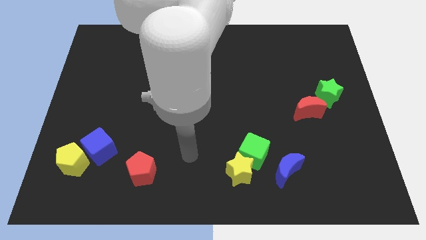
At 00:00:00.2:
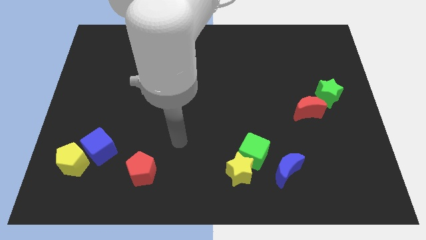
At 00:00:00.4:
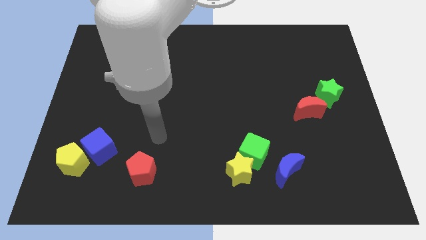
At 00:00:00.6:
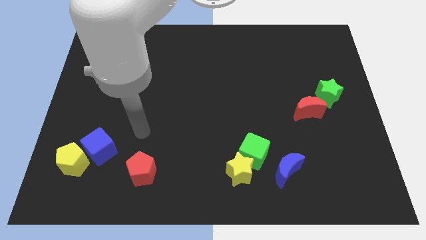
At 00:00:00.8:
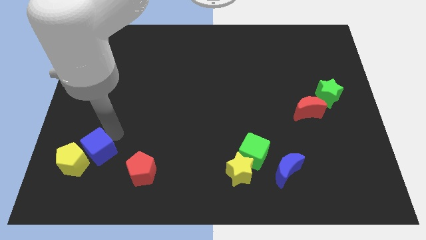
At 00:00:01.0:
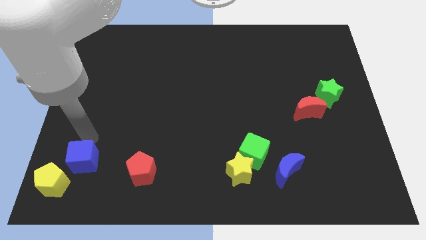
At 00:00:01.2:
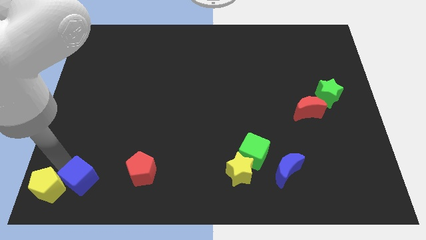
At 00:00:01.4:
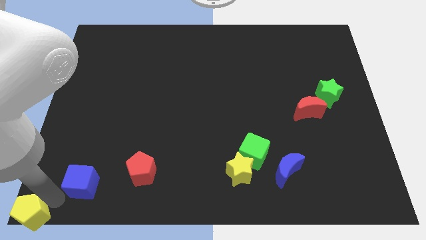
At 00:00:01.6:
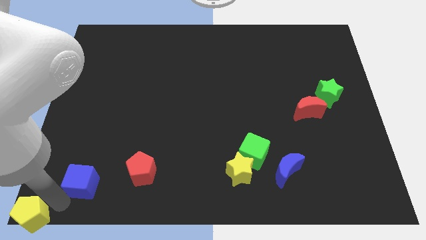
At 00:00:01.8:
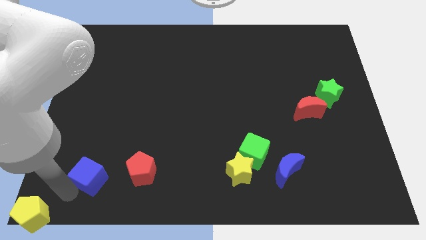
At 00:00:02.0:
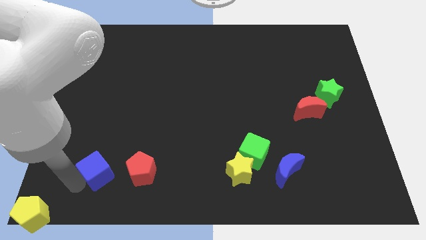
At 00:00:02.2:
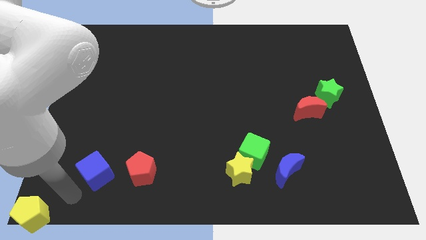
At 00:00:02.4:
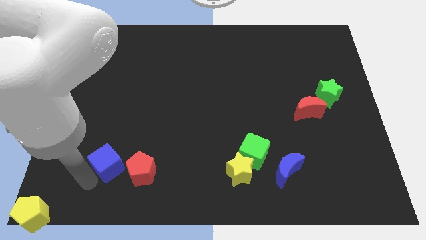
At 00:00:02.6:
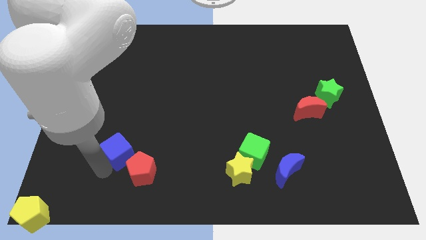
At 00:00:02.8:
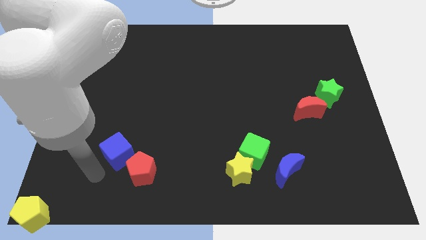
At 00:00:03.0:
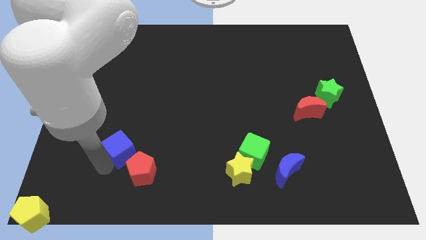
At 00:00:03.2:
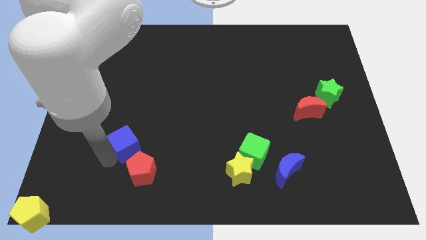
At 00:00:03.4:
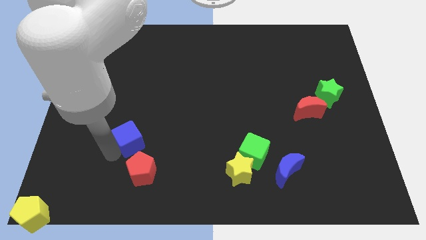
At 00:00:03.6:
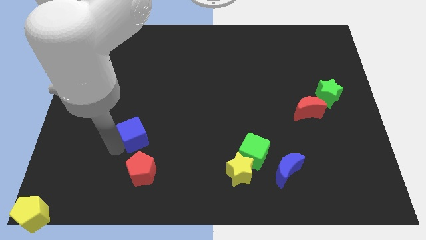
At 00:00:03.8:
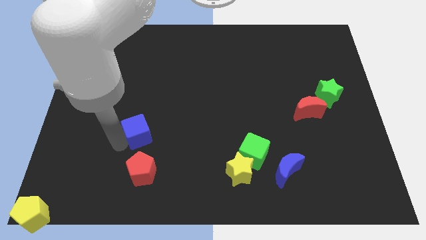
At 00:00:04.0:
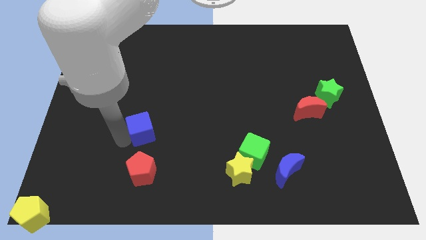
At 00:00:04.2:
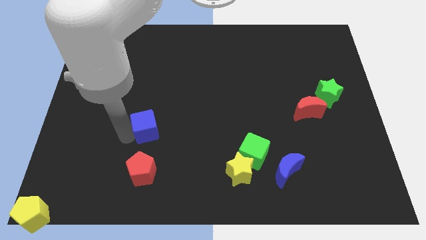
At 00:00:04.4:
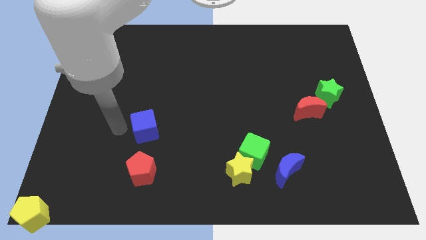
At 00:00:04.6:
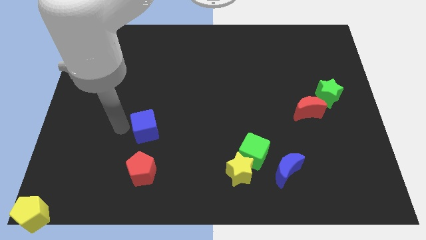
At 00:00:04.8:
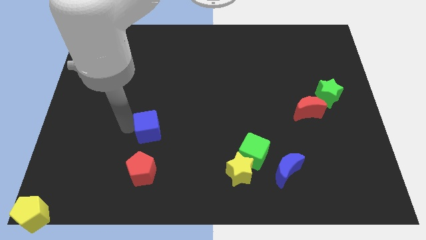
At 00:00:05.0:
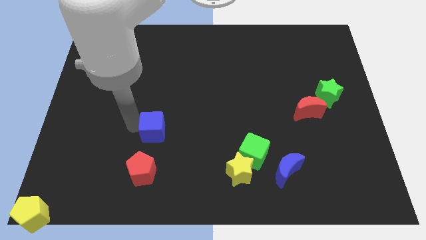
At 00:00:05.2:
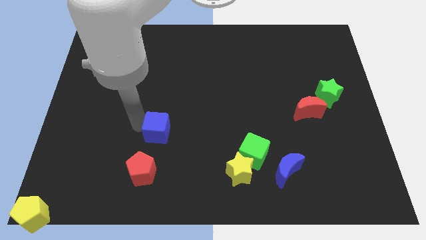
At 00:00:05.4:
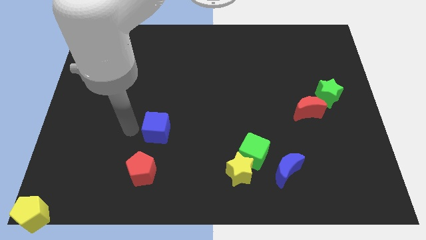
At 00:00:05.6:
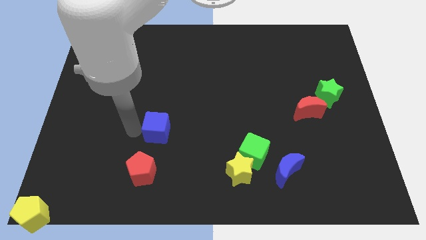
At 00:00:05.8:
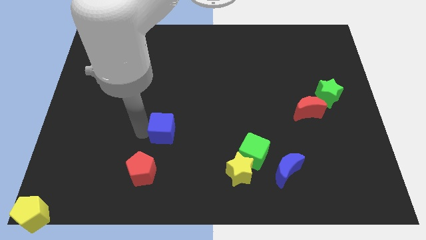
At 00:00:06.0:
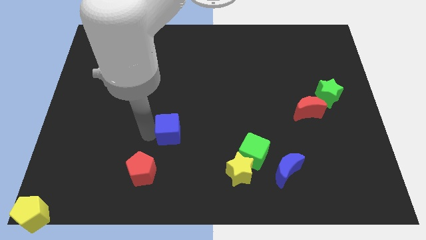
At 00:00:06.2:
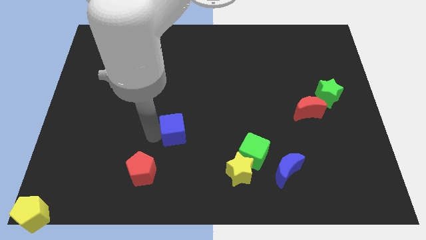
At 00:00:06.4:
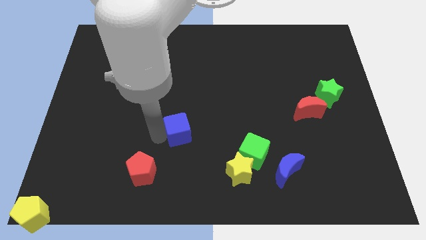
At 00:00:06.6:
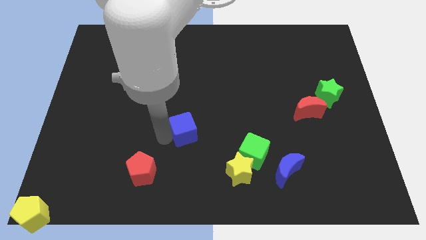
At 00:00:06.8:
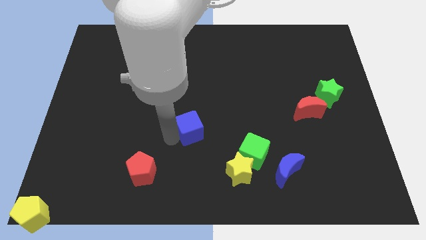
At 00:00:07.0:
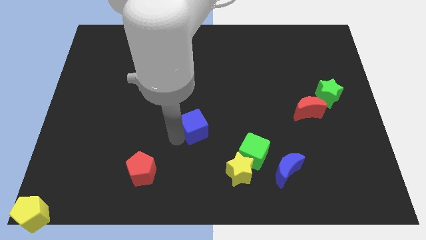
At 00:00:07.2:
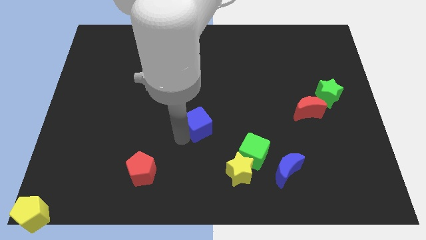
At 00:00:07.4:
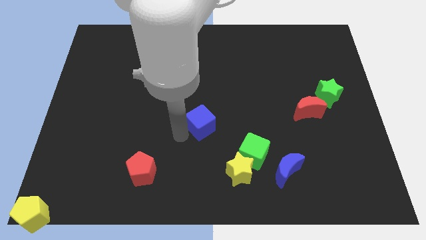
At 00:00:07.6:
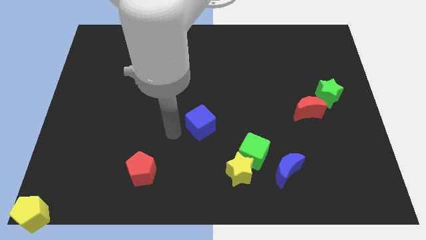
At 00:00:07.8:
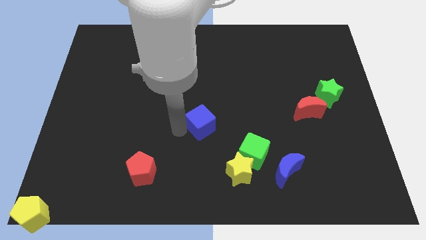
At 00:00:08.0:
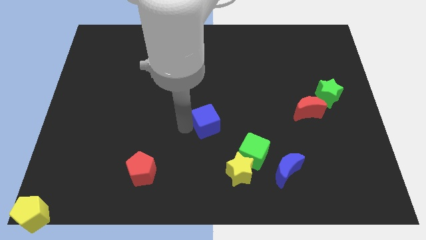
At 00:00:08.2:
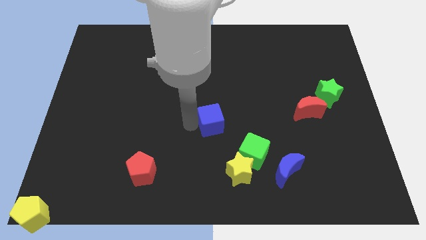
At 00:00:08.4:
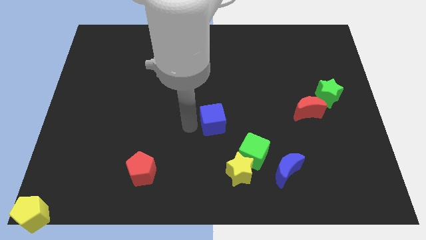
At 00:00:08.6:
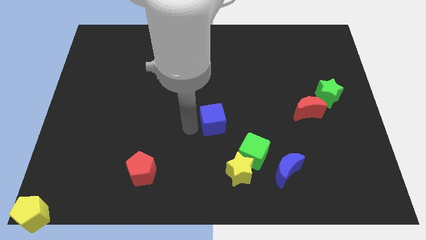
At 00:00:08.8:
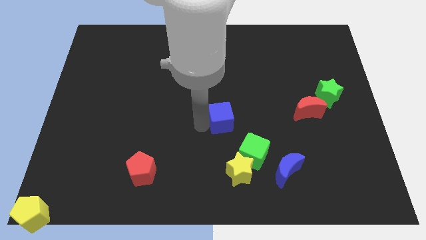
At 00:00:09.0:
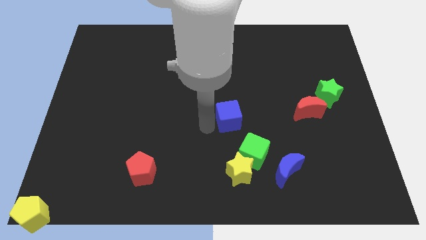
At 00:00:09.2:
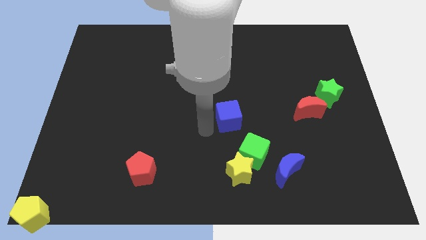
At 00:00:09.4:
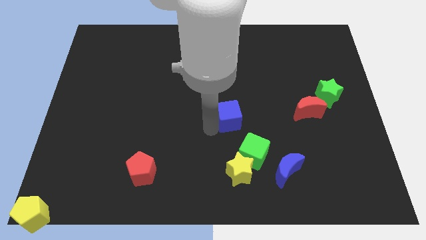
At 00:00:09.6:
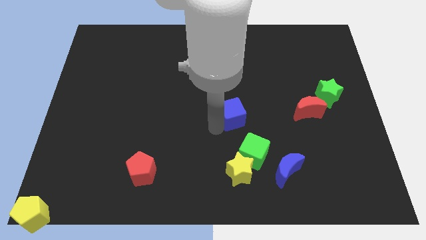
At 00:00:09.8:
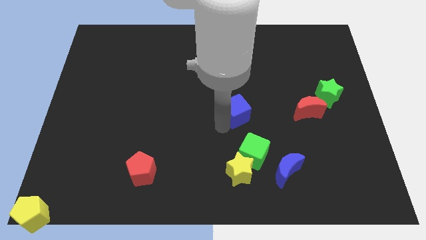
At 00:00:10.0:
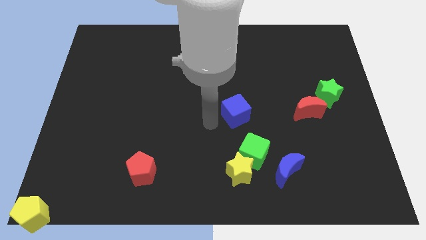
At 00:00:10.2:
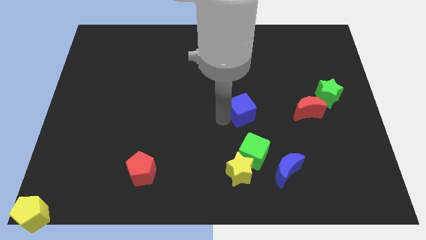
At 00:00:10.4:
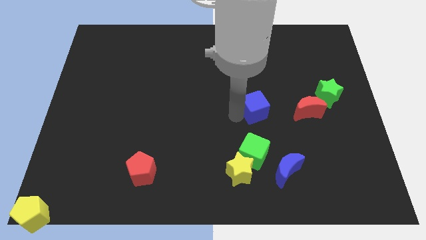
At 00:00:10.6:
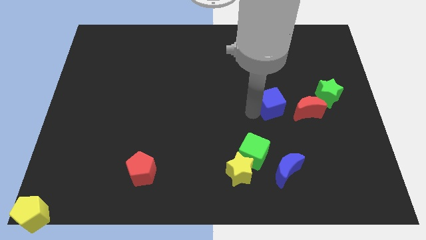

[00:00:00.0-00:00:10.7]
push the blue cube to the left of the green star

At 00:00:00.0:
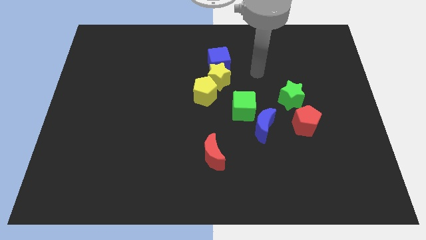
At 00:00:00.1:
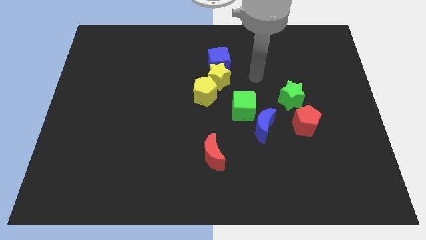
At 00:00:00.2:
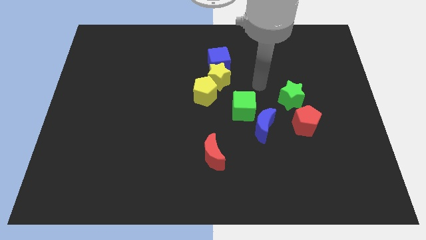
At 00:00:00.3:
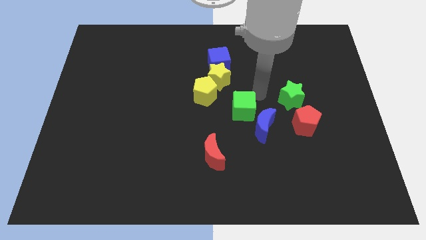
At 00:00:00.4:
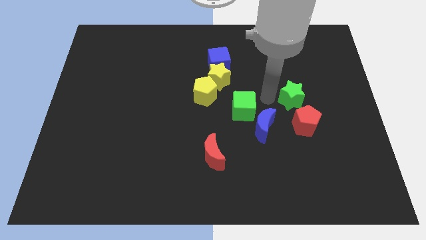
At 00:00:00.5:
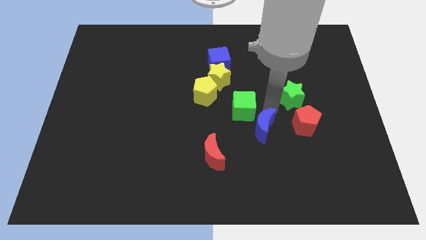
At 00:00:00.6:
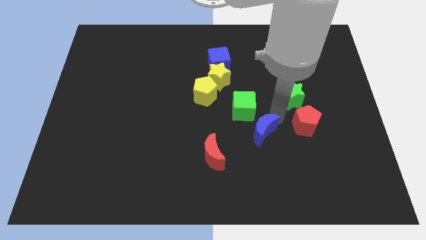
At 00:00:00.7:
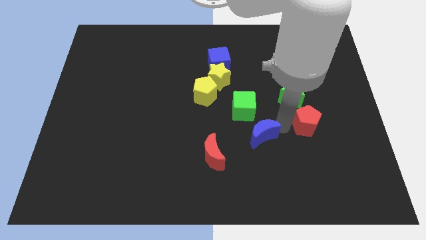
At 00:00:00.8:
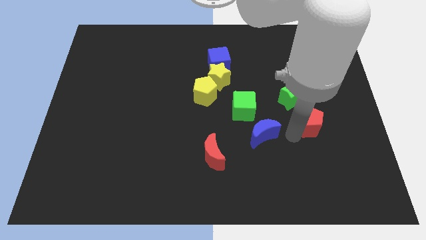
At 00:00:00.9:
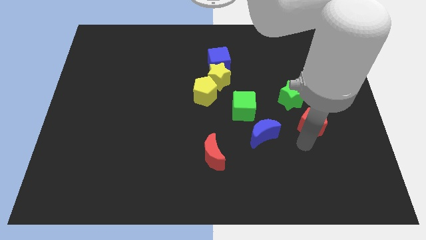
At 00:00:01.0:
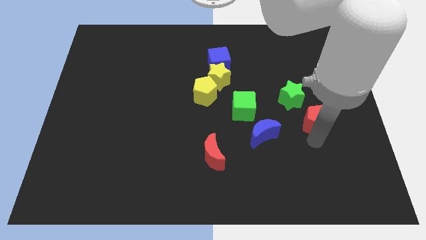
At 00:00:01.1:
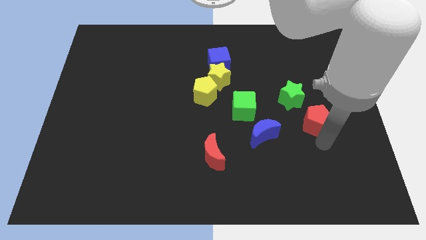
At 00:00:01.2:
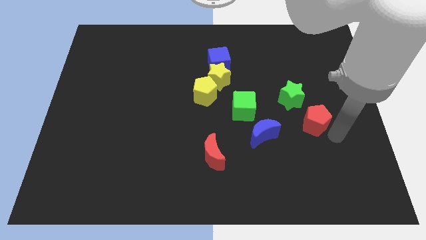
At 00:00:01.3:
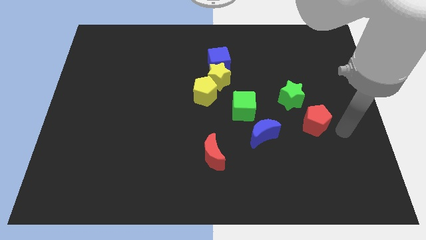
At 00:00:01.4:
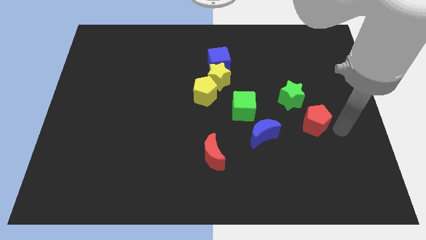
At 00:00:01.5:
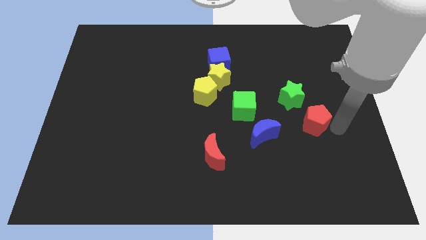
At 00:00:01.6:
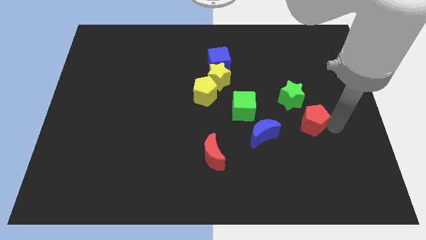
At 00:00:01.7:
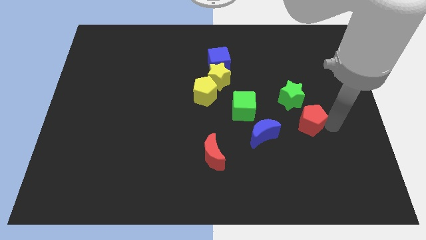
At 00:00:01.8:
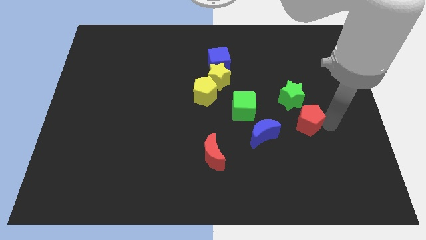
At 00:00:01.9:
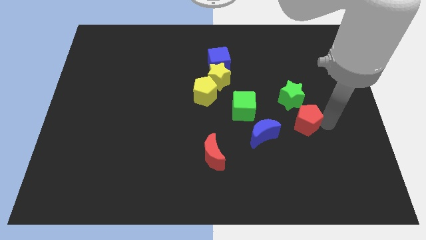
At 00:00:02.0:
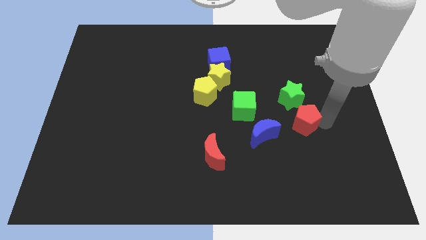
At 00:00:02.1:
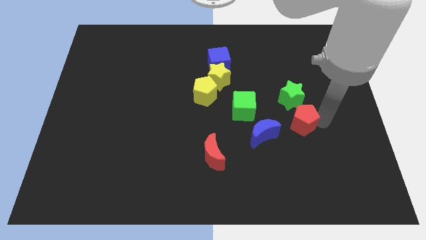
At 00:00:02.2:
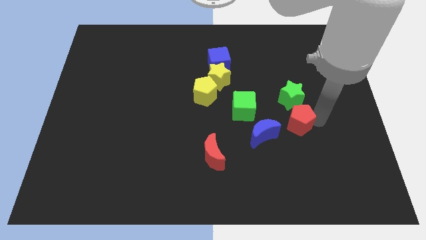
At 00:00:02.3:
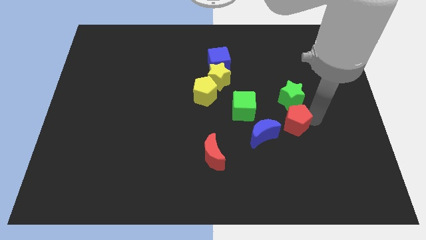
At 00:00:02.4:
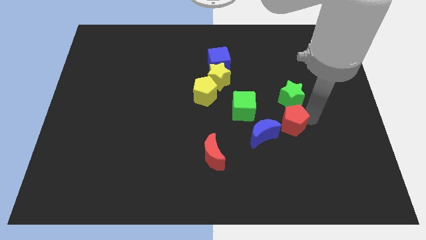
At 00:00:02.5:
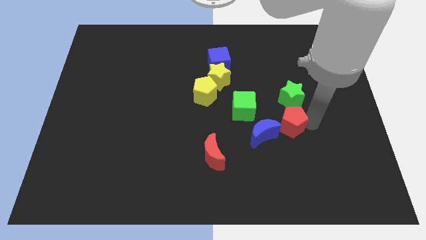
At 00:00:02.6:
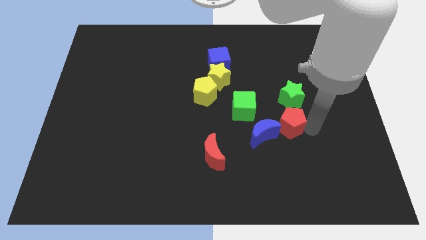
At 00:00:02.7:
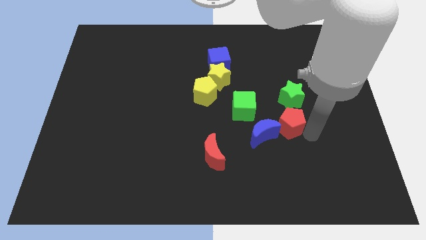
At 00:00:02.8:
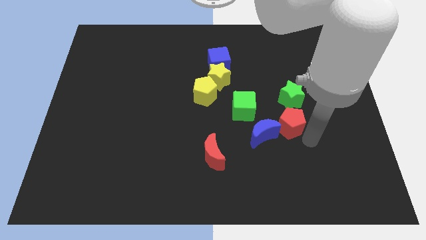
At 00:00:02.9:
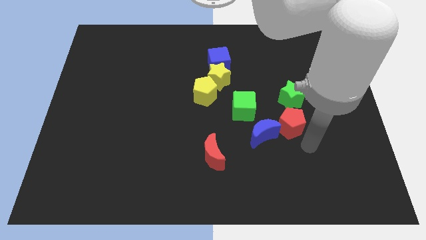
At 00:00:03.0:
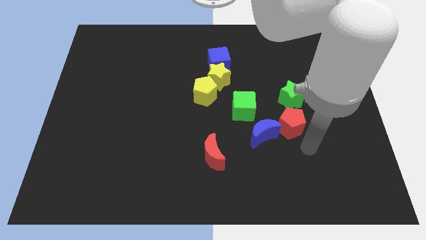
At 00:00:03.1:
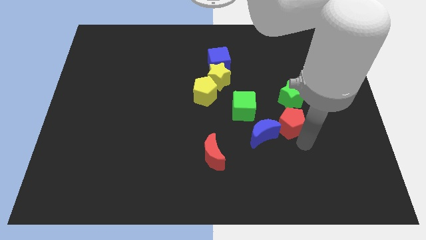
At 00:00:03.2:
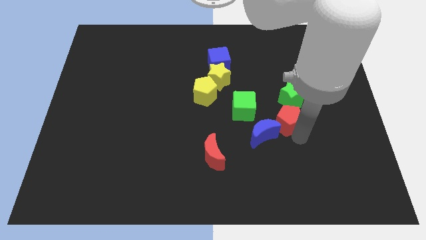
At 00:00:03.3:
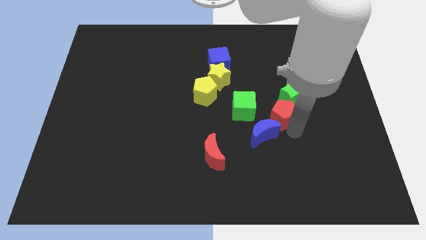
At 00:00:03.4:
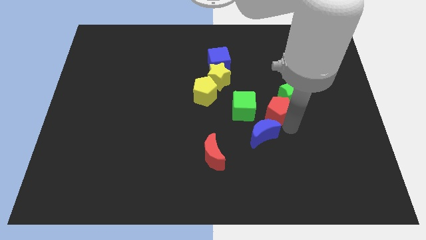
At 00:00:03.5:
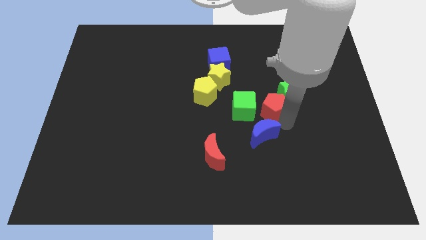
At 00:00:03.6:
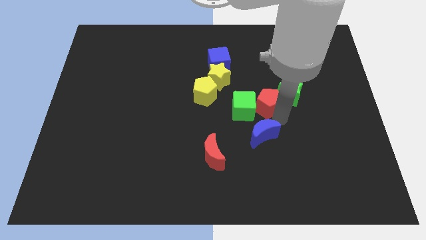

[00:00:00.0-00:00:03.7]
slide the red pentagon diagonally up and to the right of the green cube
